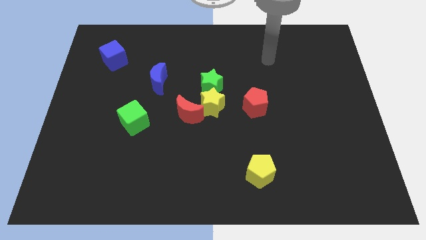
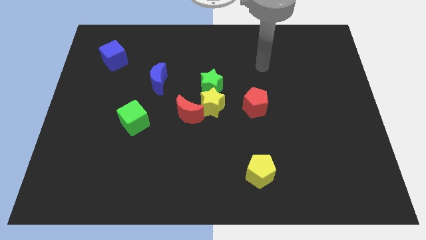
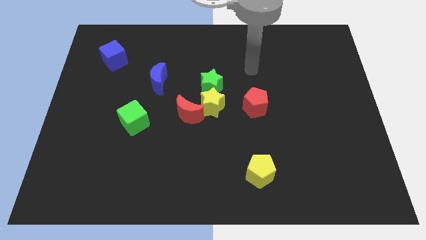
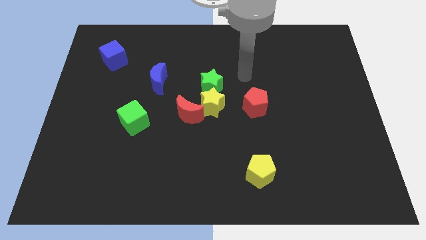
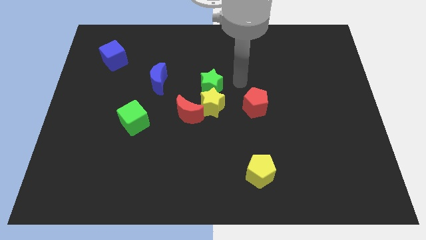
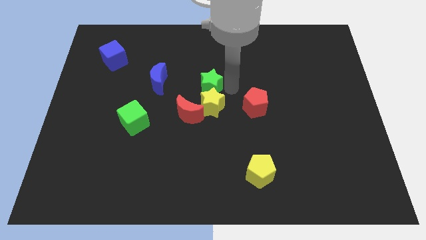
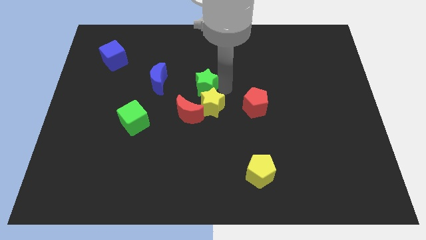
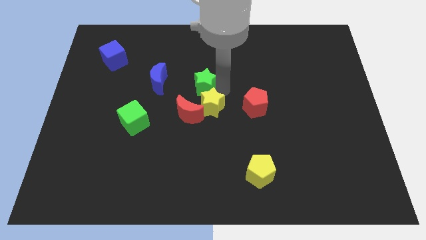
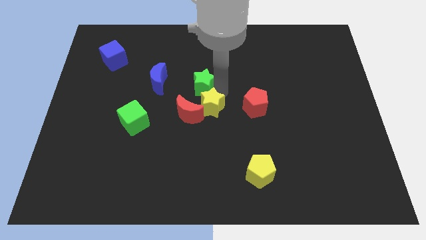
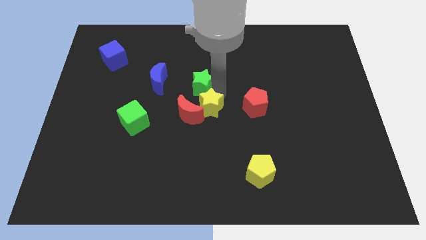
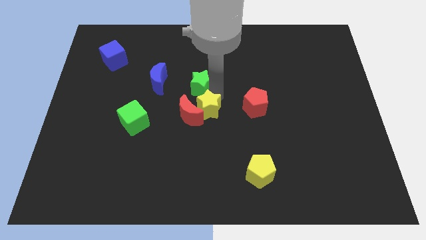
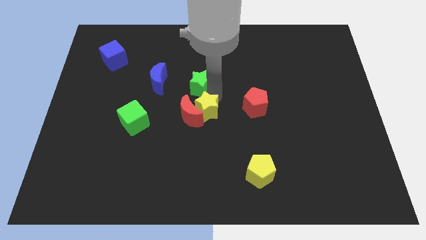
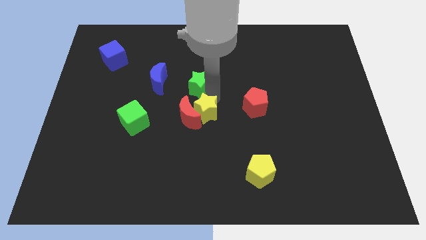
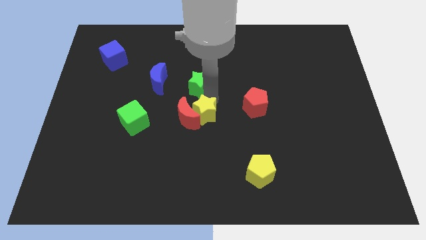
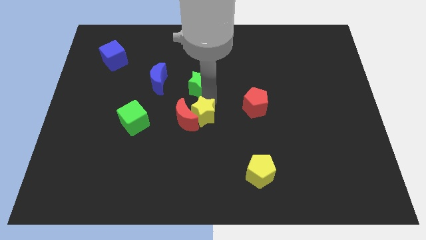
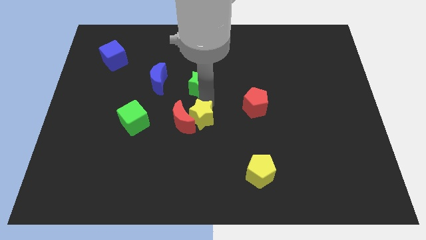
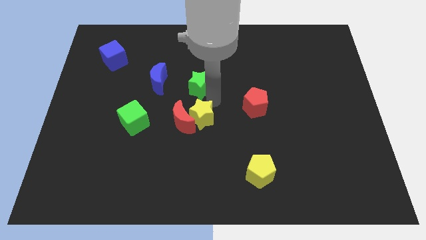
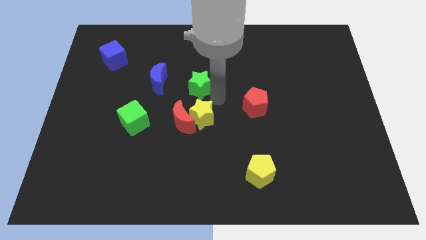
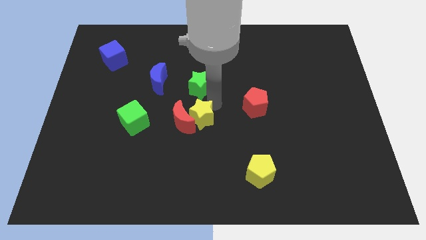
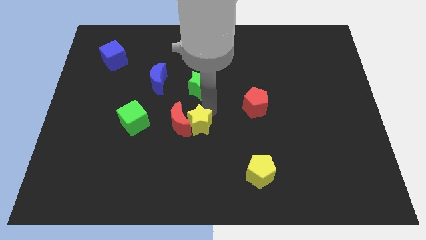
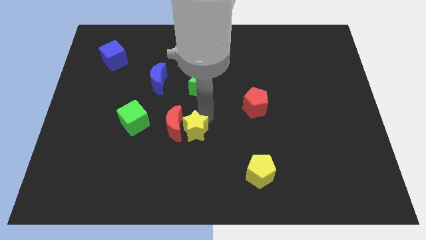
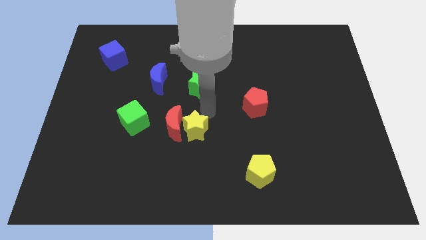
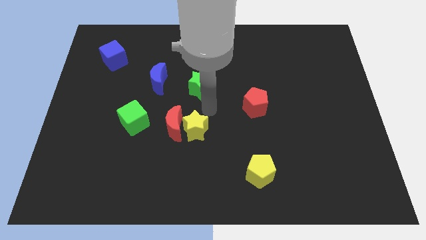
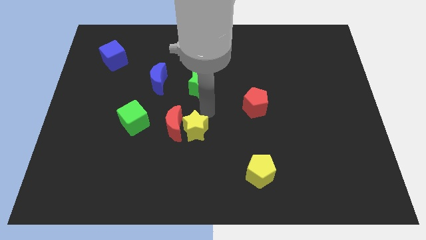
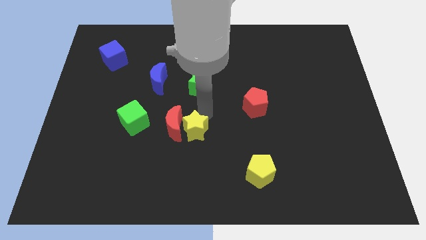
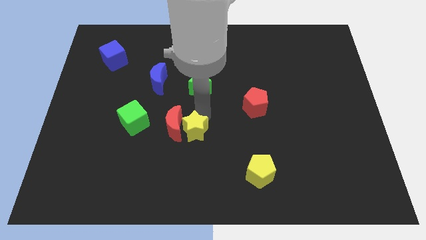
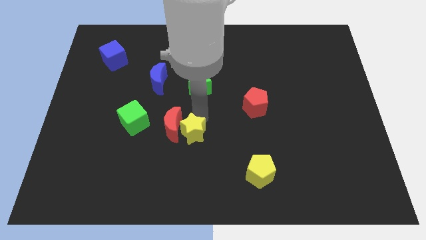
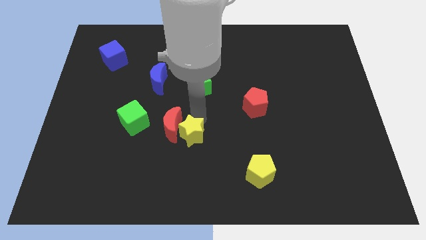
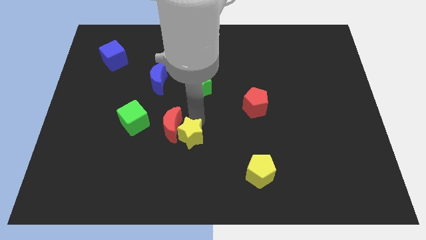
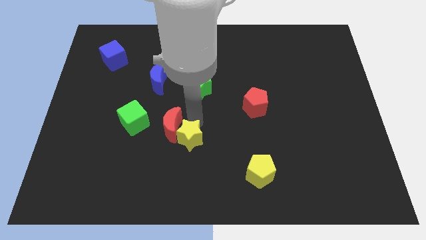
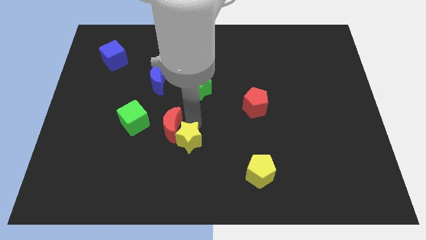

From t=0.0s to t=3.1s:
pull the yellow star apart from the group

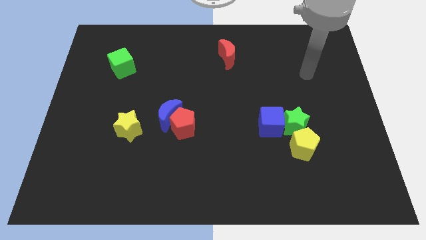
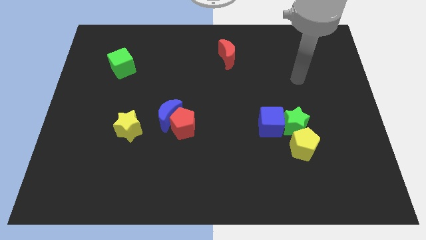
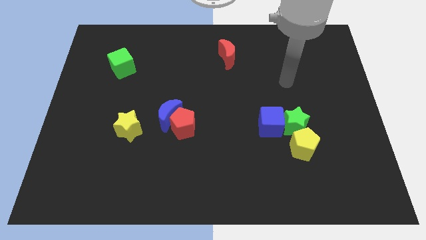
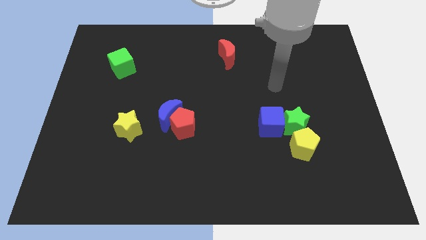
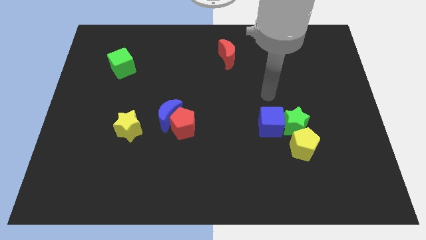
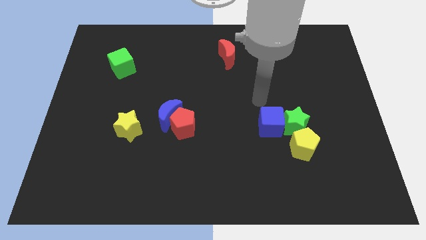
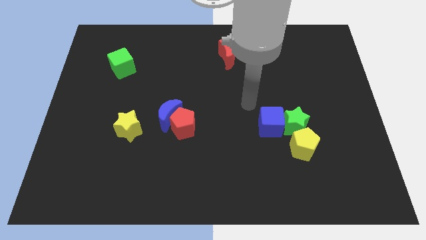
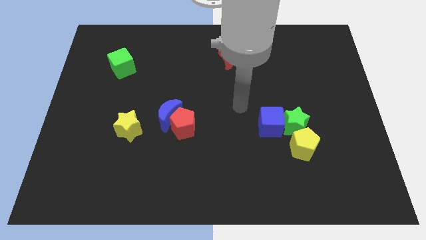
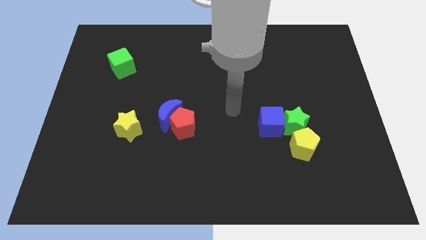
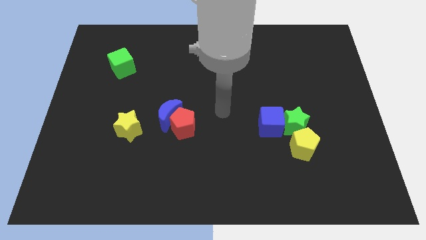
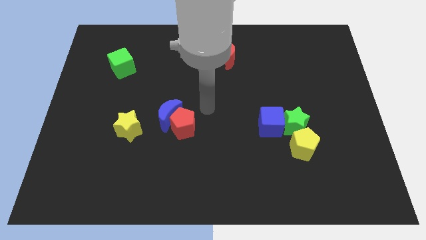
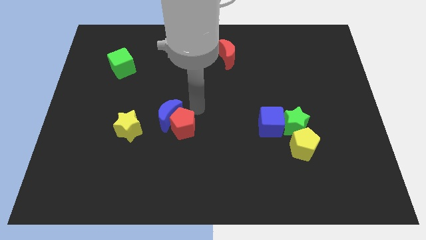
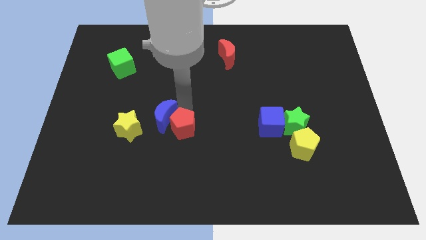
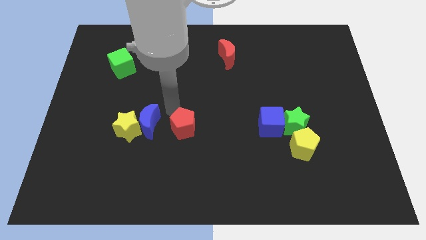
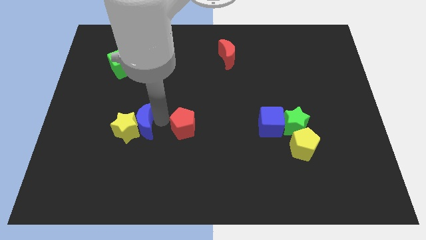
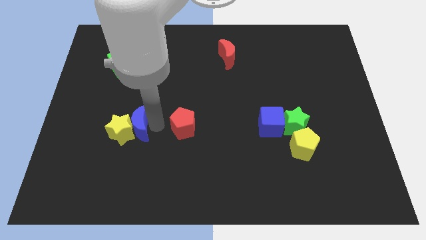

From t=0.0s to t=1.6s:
move the red pentagon away from the blue moon

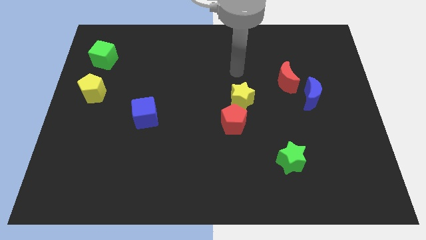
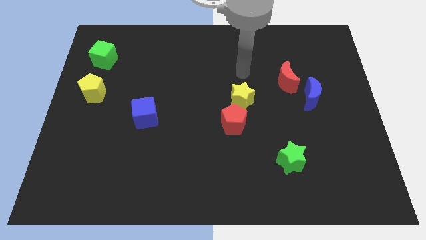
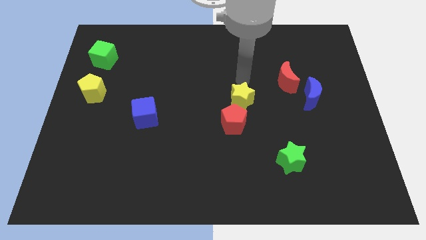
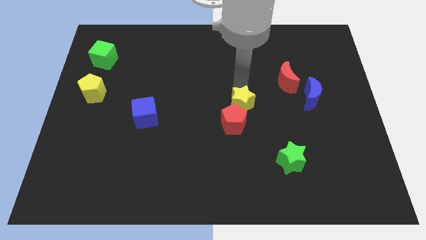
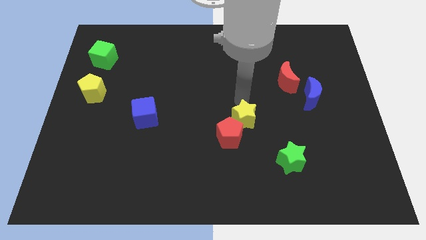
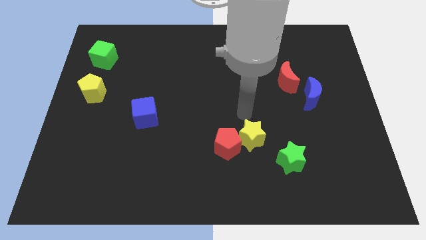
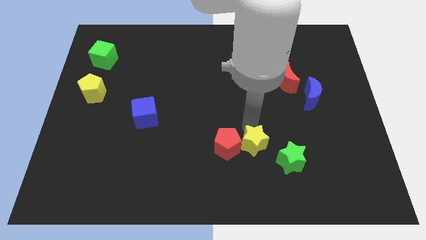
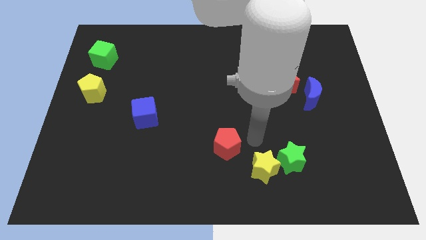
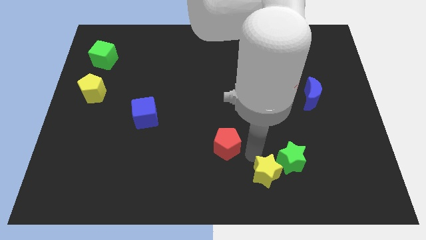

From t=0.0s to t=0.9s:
move the red pentagon away from the yellow star

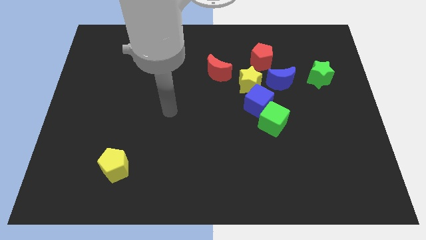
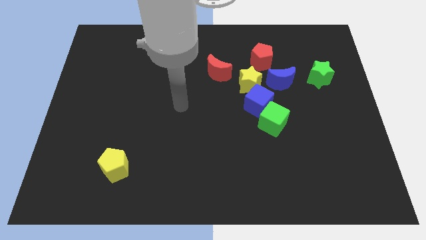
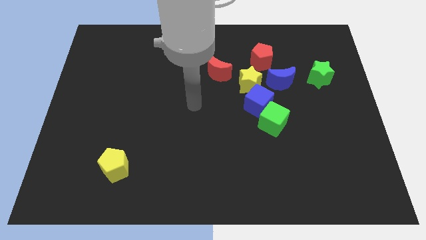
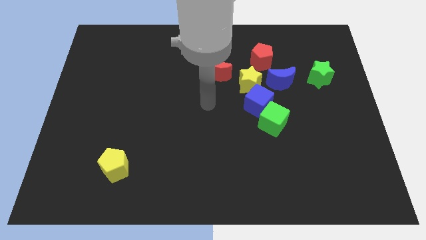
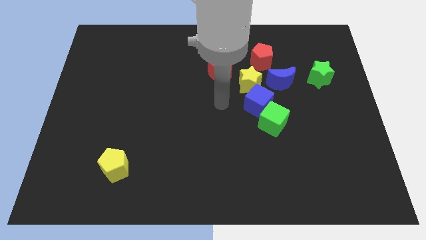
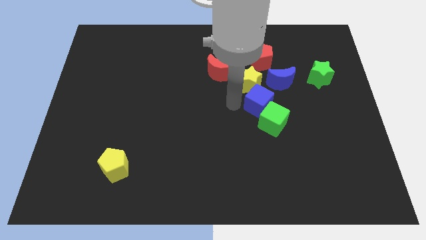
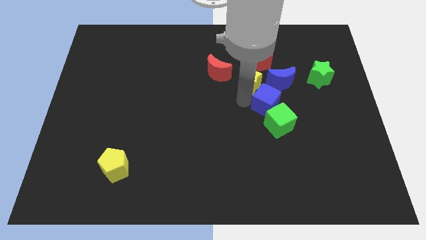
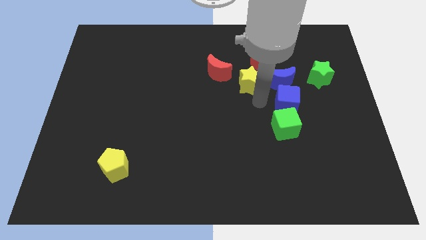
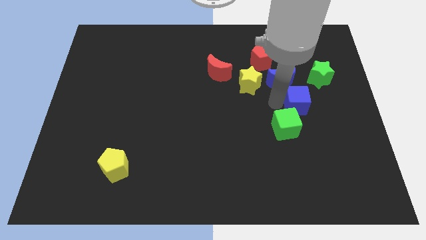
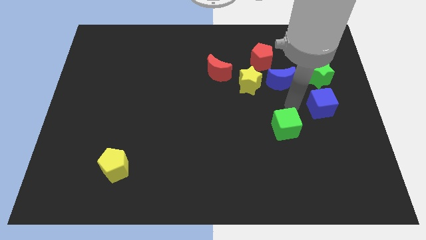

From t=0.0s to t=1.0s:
move the green cube away from the blue cube

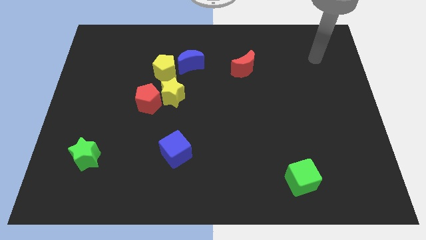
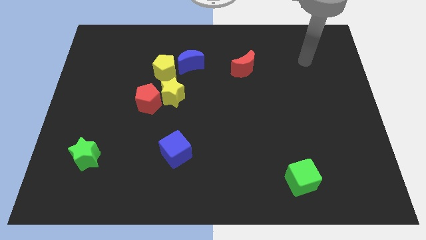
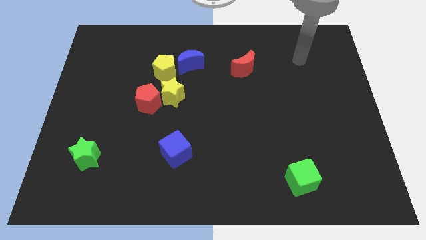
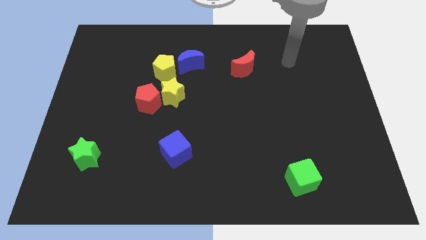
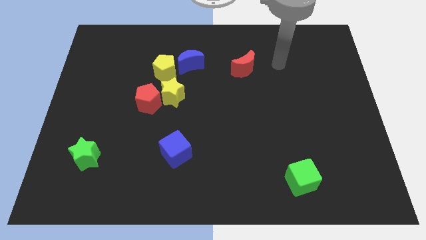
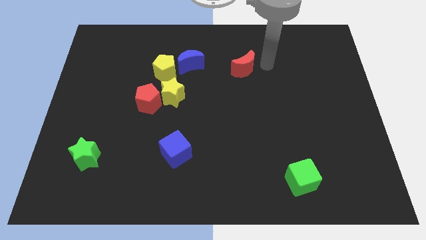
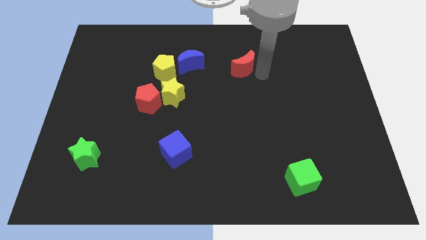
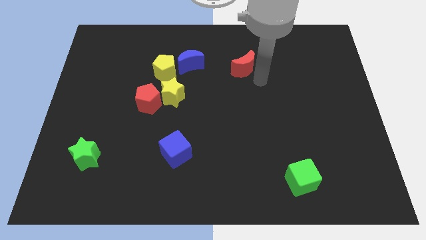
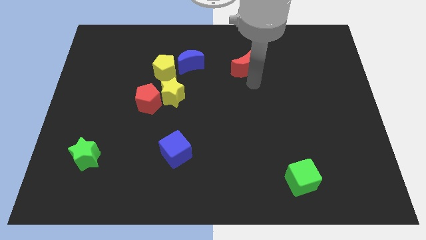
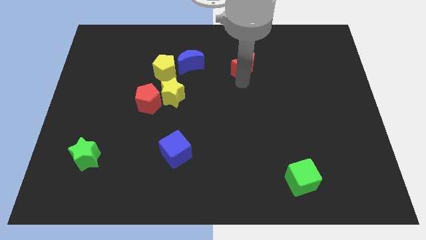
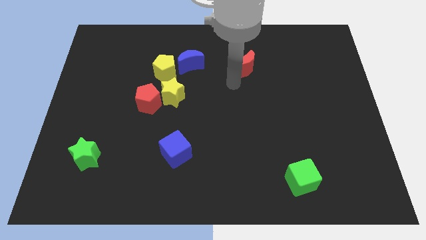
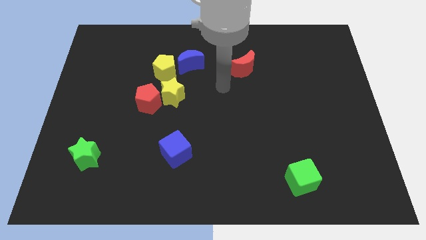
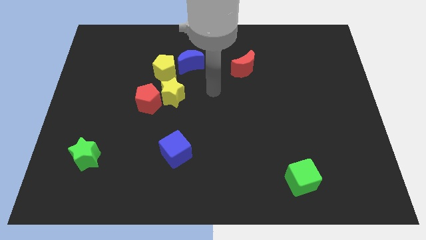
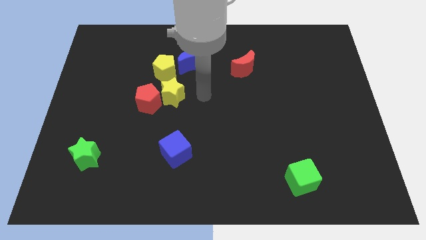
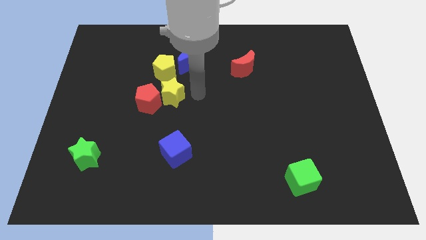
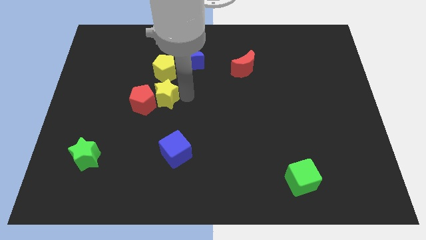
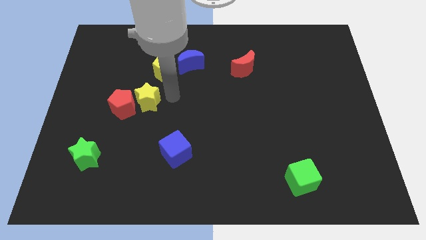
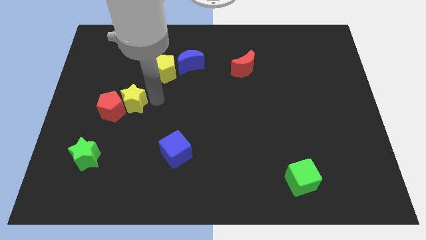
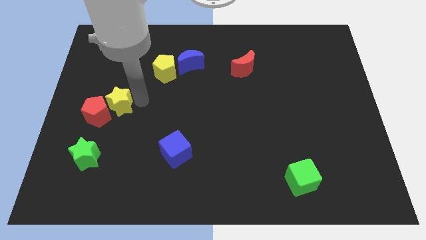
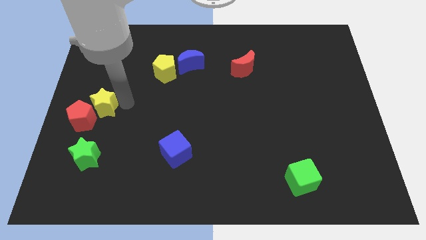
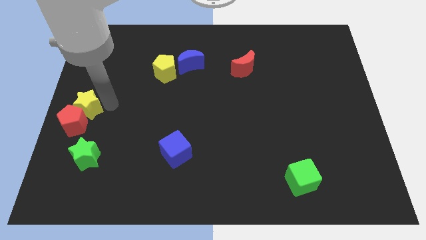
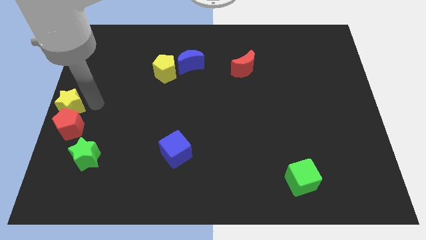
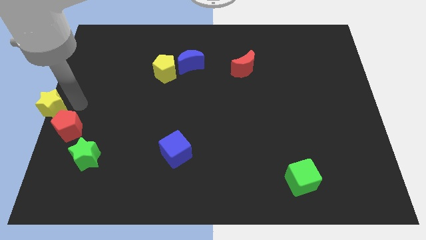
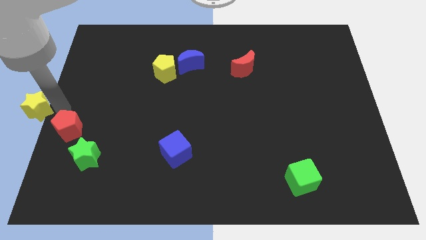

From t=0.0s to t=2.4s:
pull the red pentagon apart from the yellow star

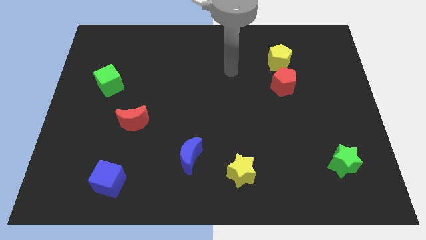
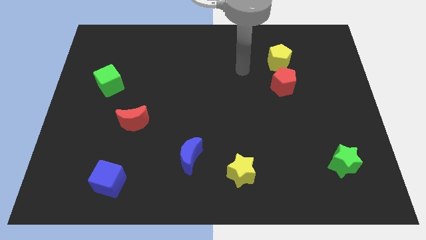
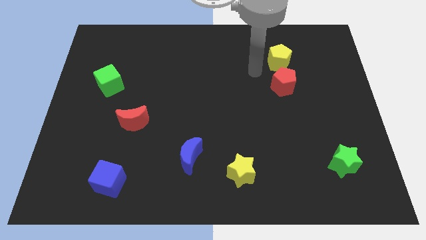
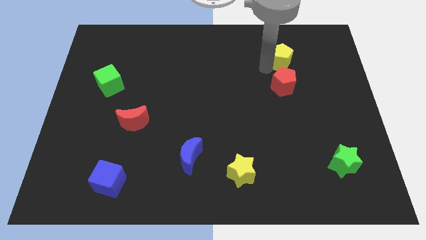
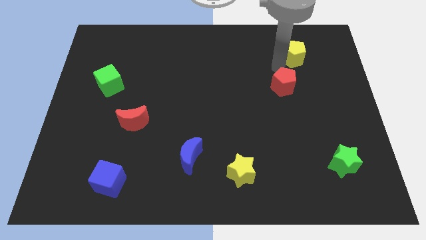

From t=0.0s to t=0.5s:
separate the red pentagon from the yellow pentagon
